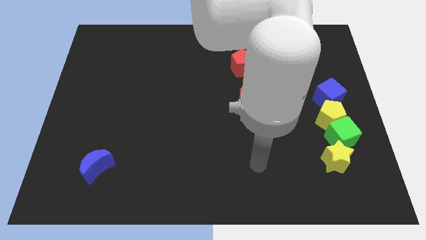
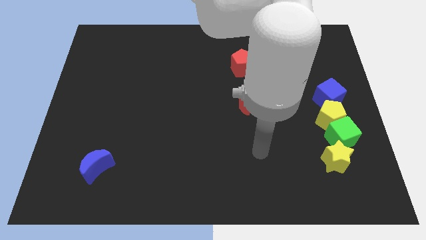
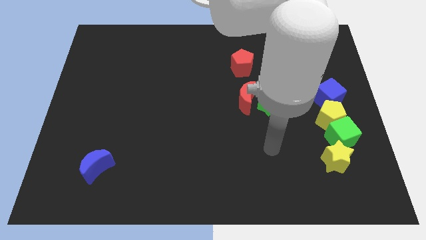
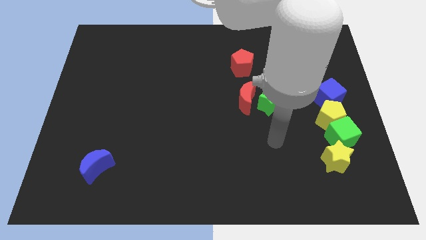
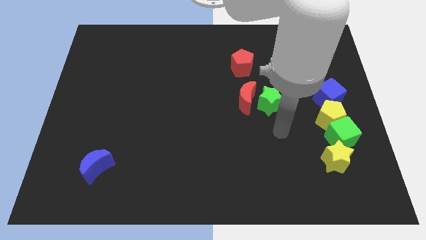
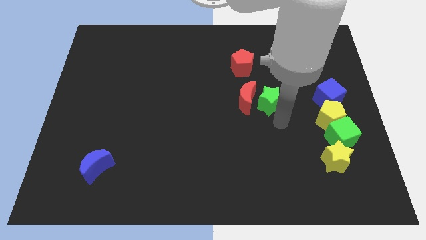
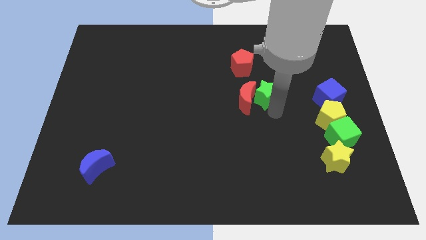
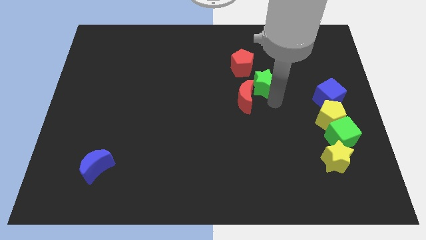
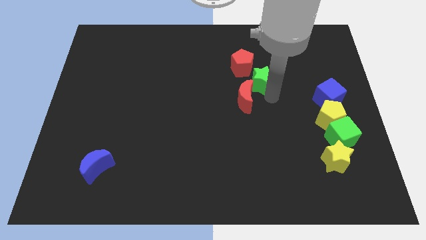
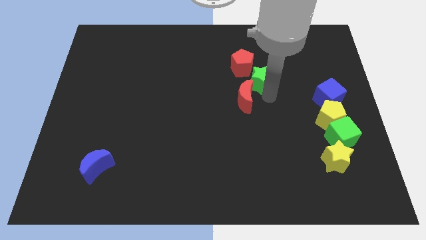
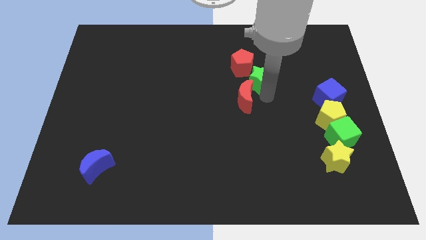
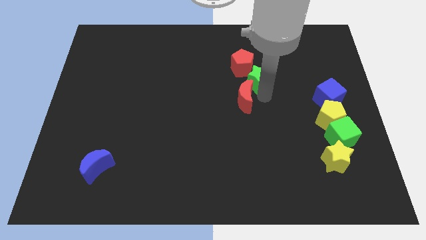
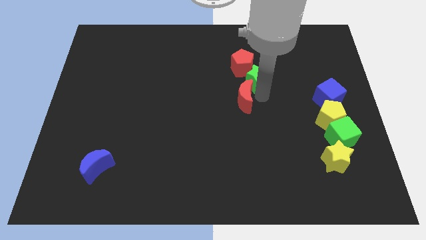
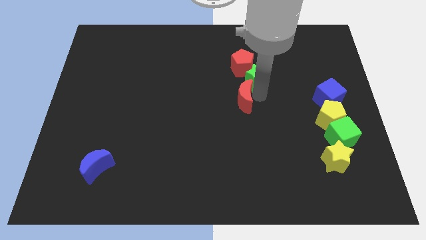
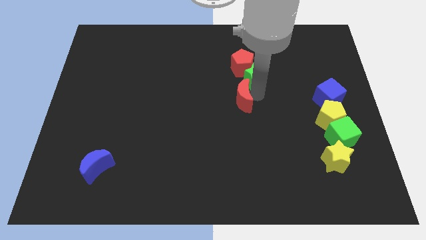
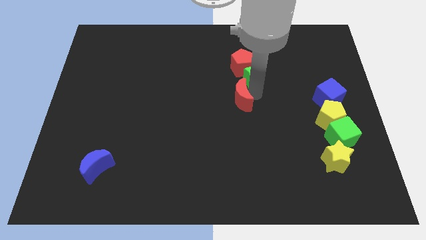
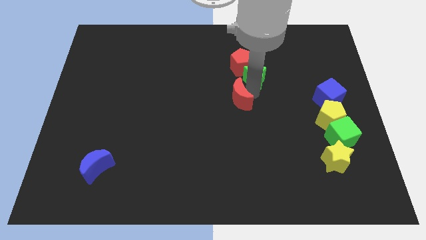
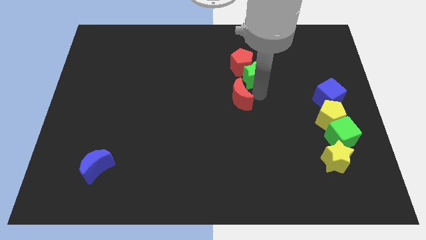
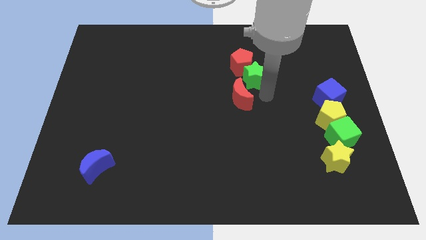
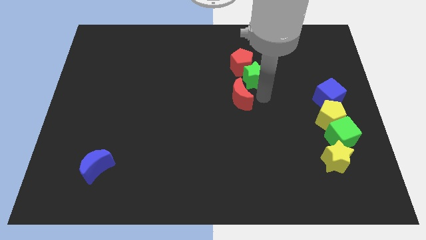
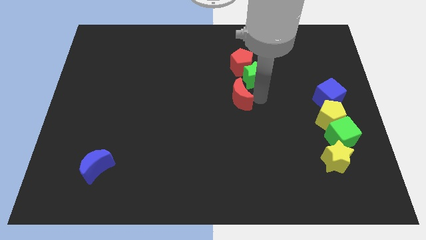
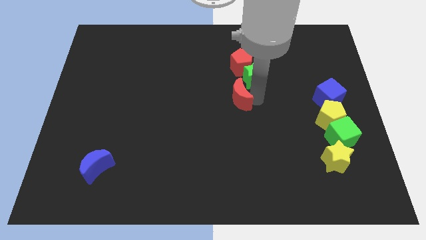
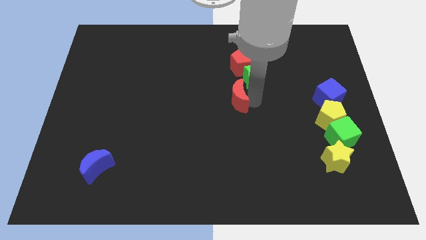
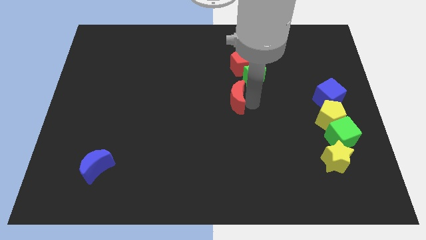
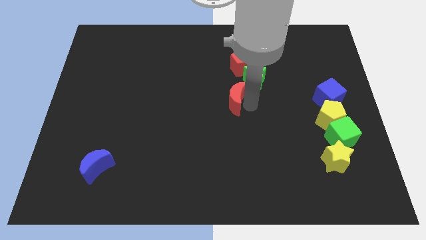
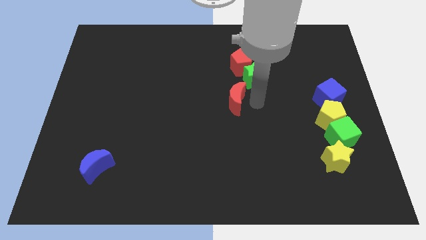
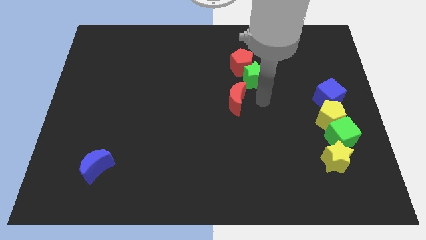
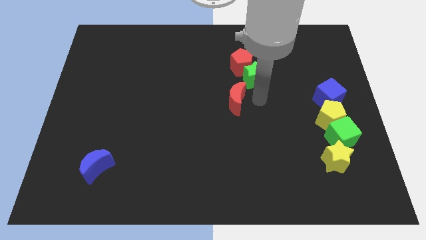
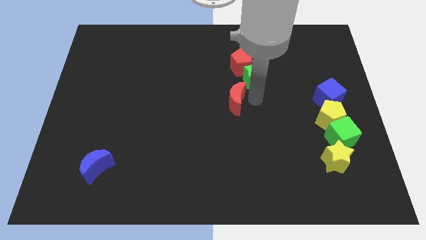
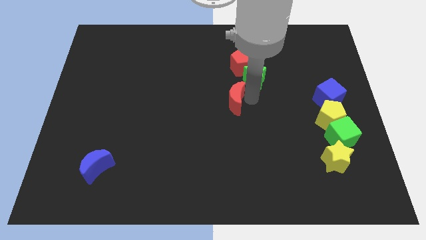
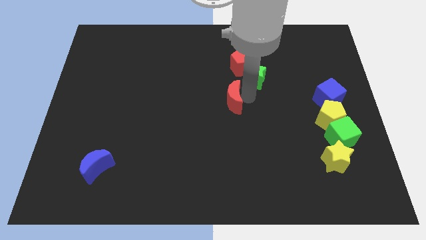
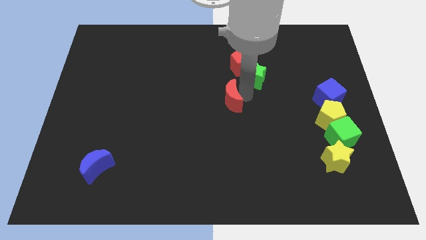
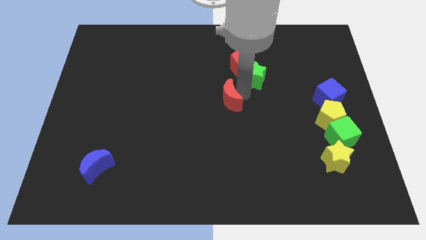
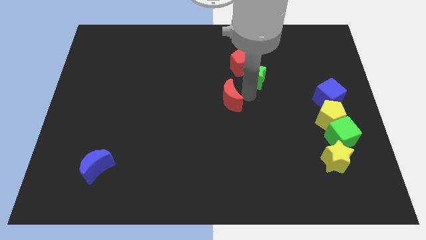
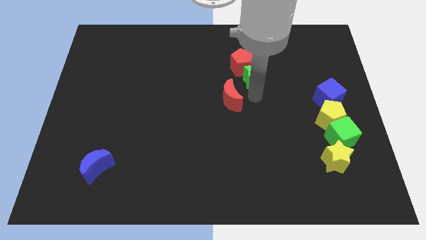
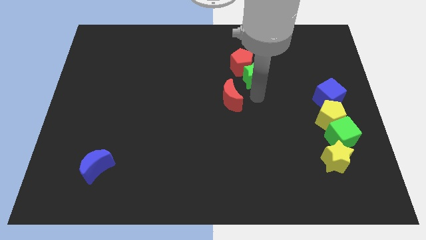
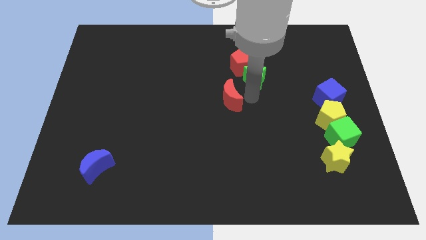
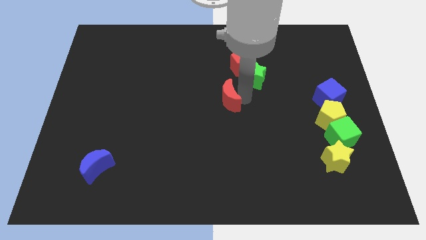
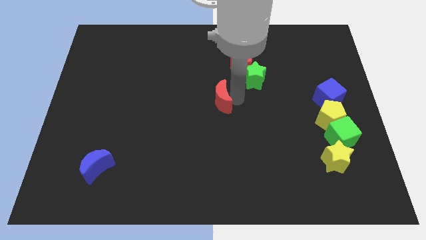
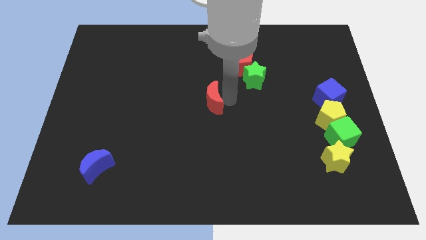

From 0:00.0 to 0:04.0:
slightly move the red moon to the left

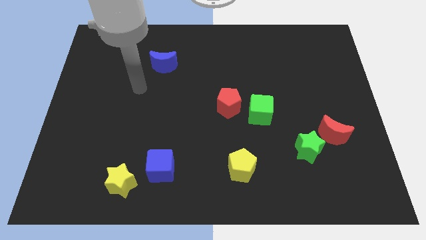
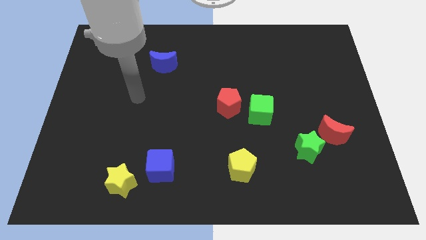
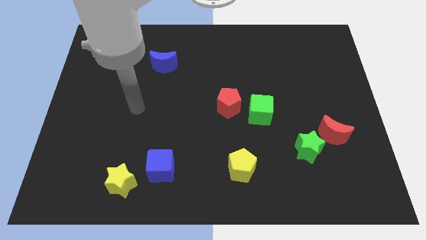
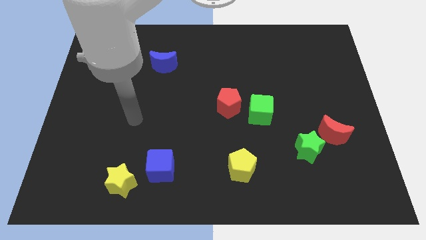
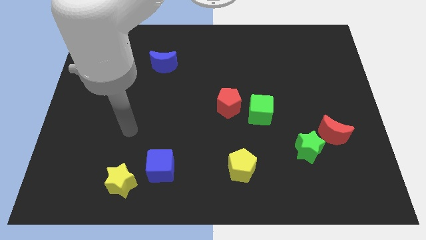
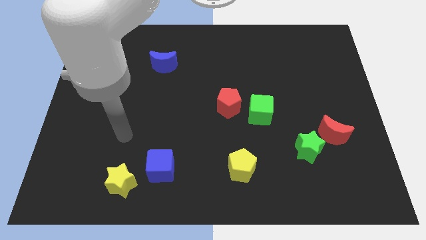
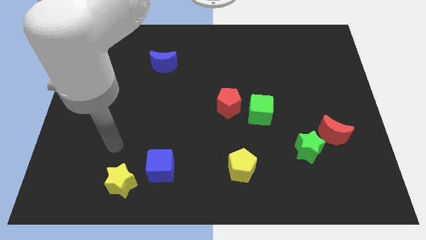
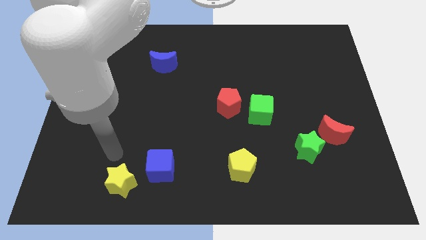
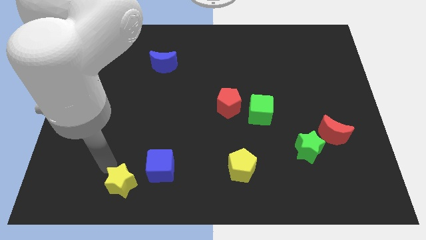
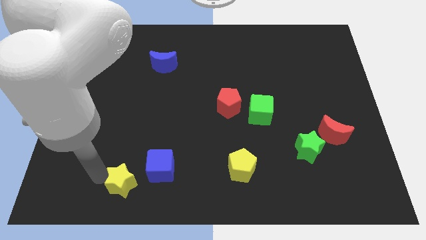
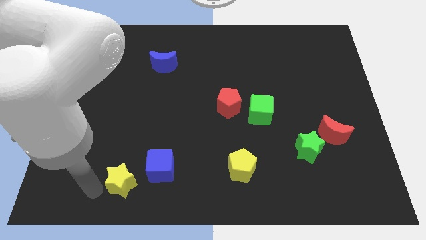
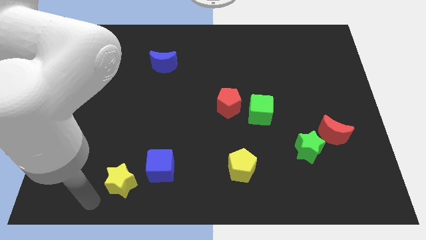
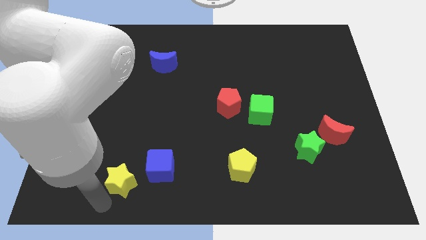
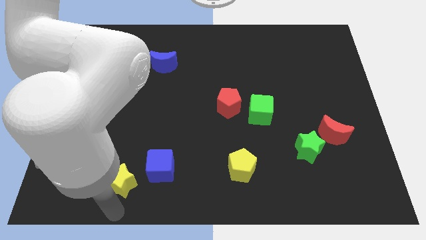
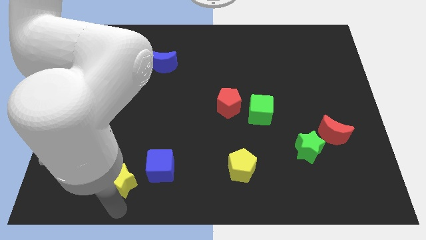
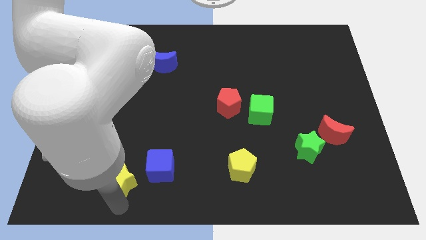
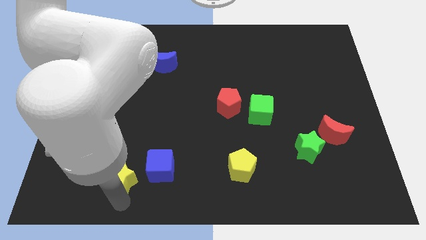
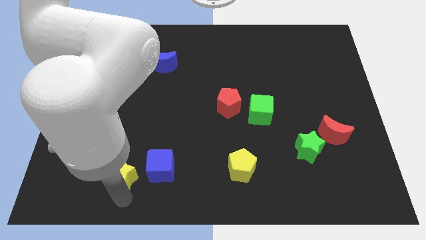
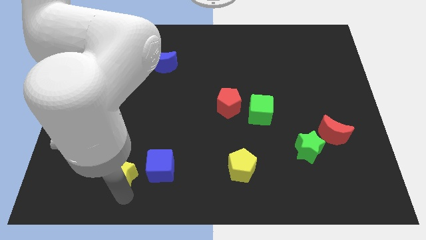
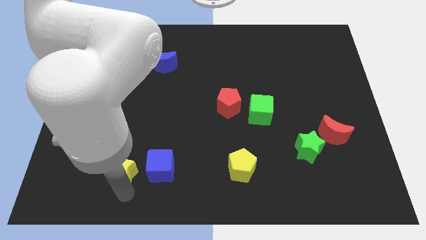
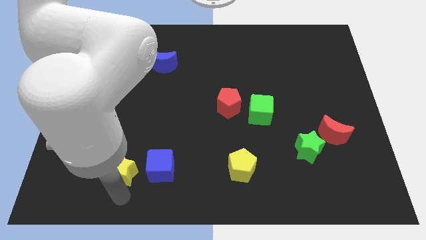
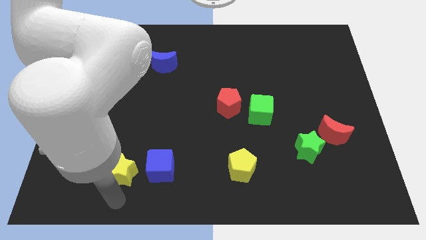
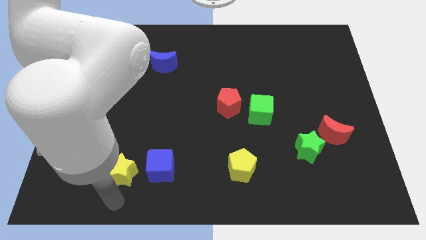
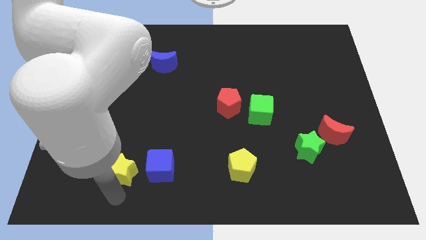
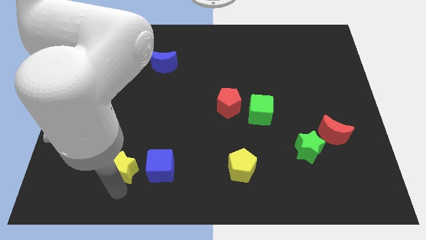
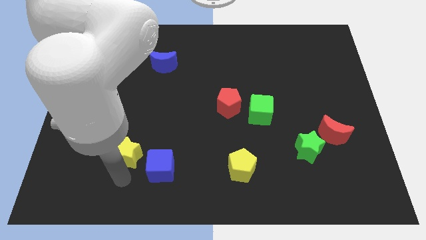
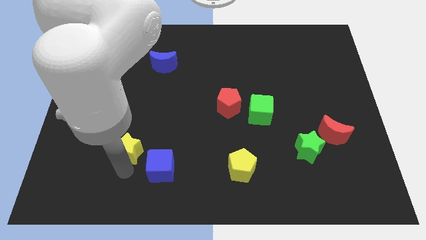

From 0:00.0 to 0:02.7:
push the yellow star a little bit upwards

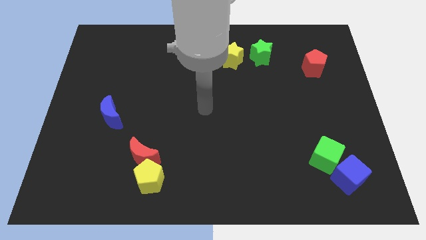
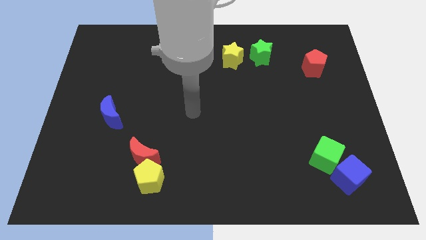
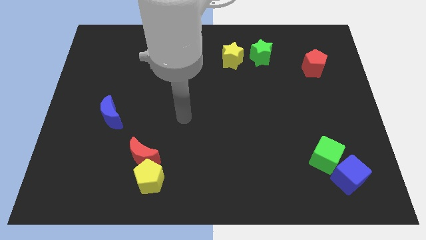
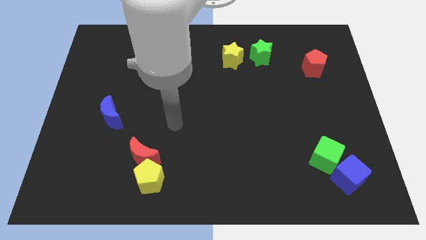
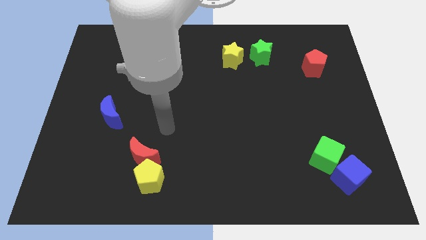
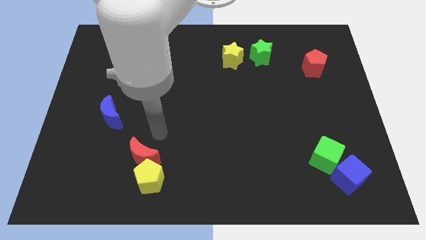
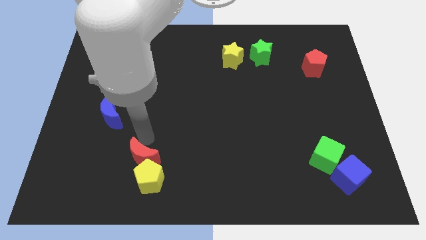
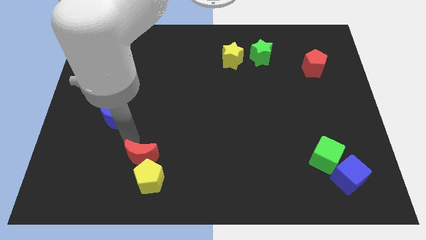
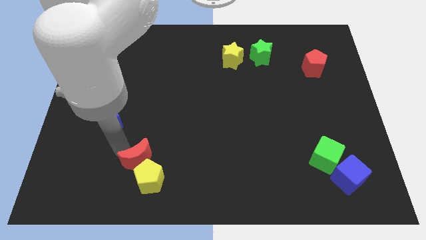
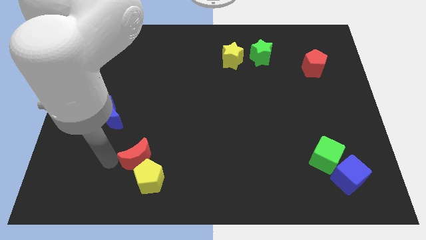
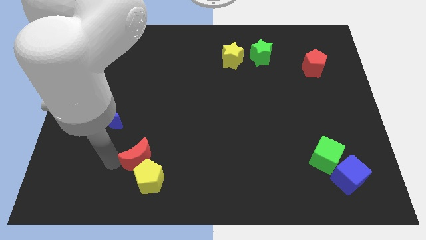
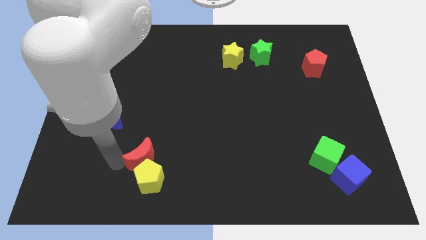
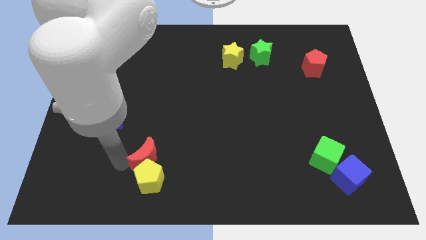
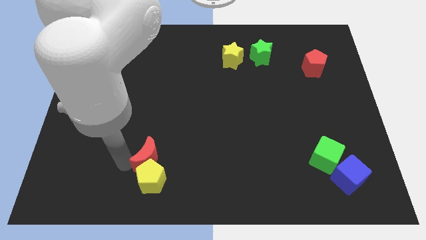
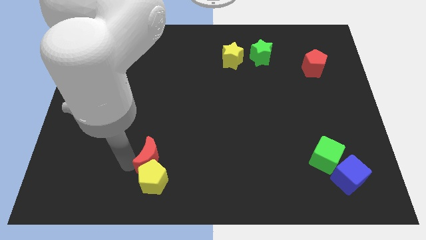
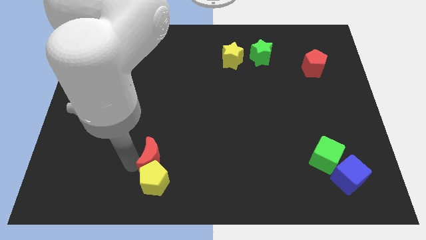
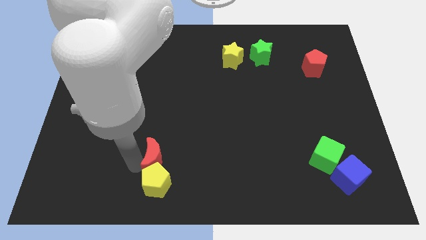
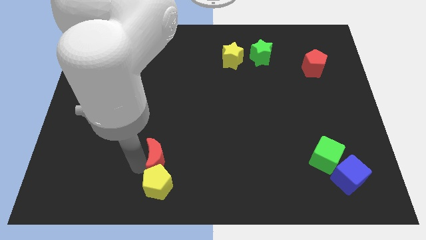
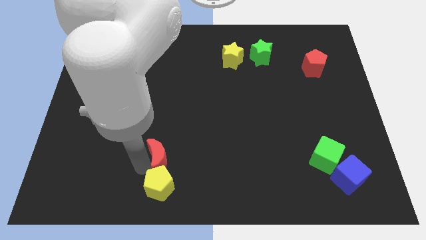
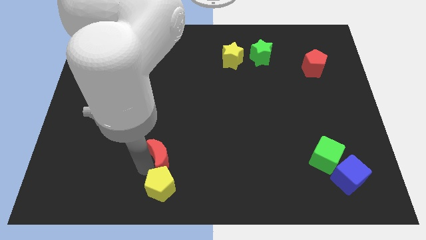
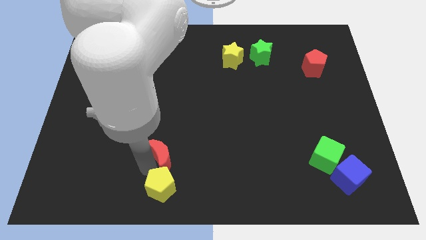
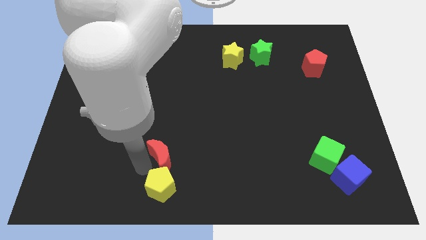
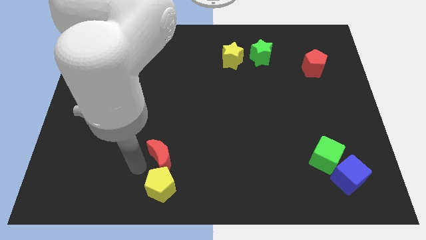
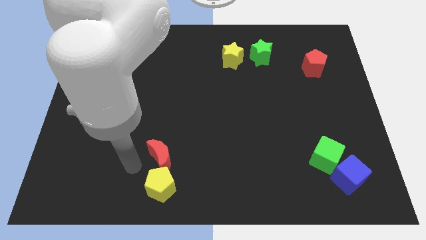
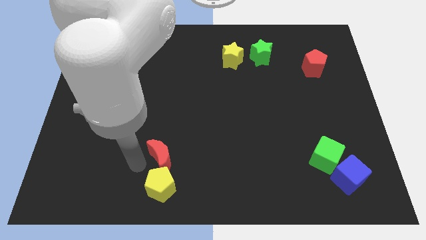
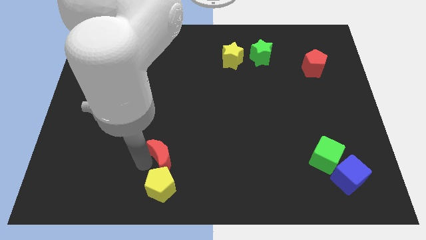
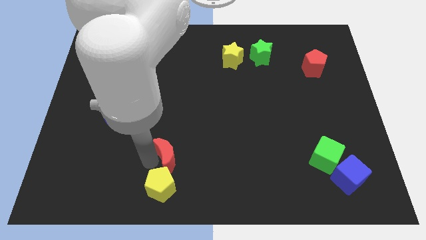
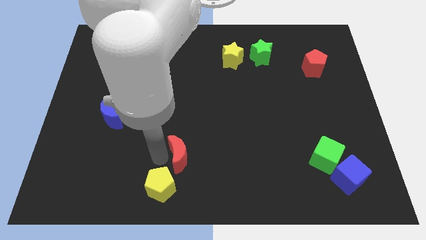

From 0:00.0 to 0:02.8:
slide the red moon to the right a little bit
